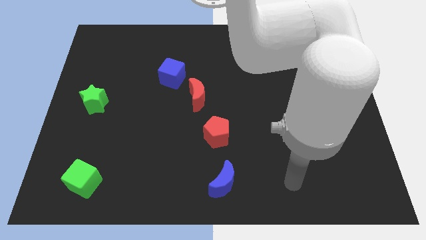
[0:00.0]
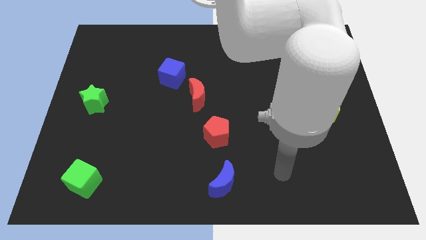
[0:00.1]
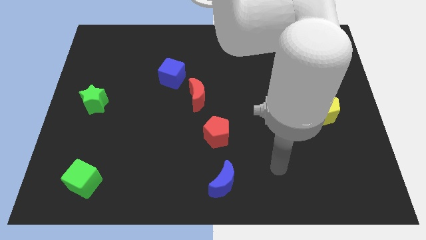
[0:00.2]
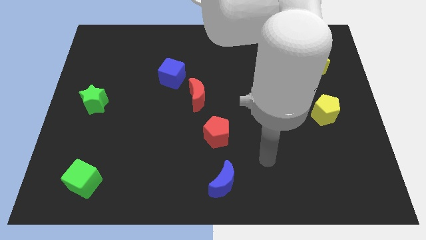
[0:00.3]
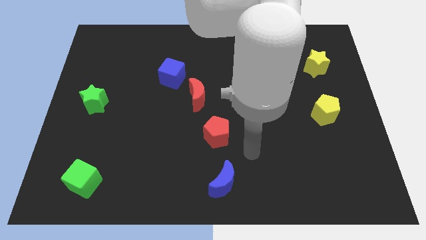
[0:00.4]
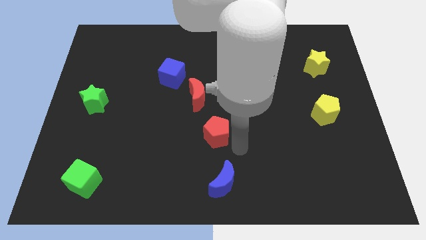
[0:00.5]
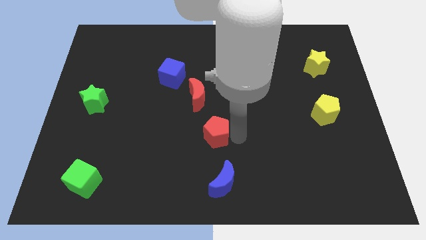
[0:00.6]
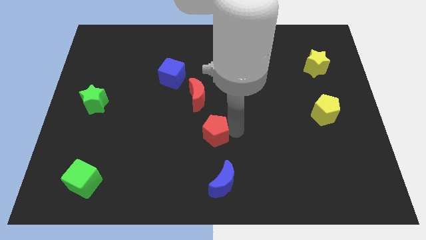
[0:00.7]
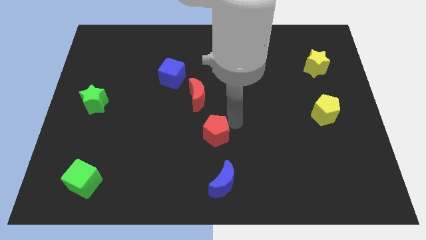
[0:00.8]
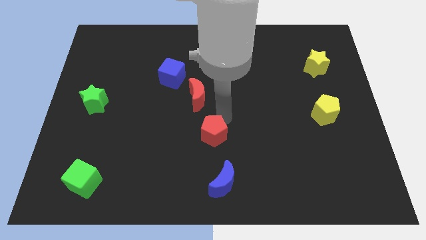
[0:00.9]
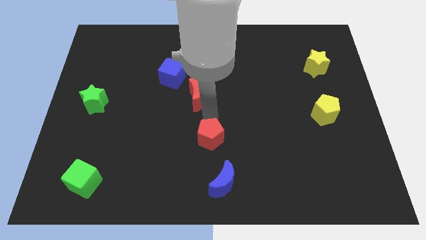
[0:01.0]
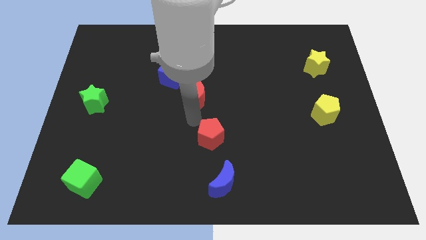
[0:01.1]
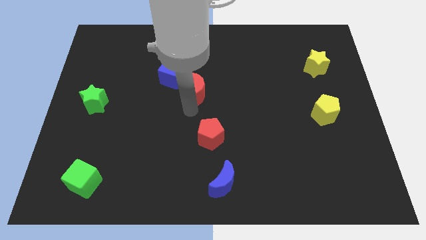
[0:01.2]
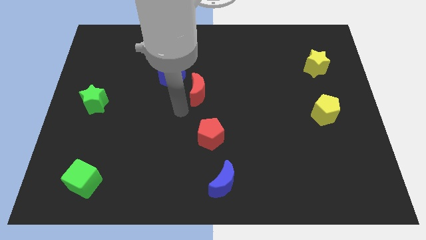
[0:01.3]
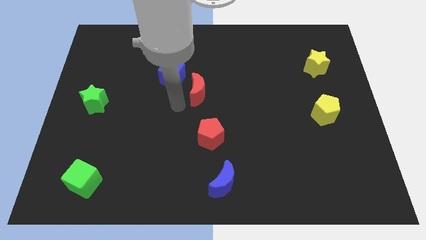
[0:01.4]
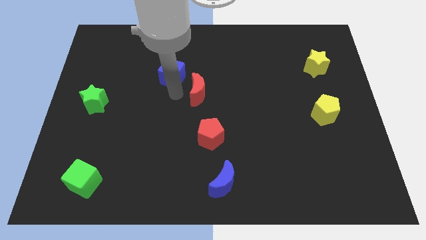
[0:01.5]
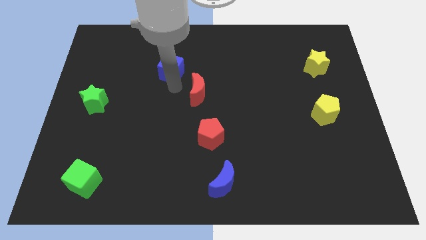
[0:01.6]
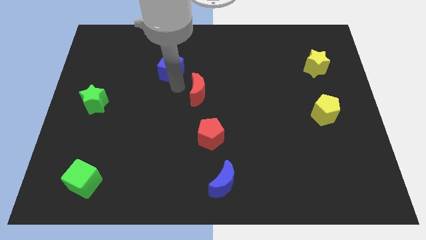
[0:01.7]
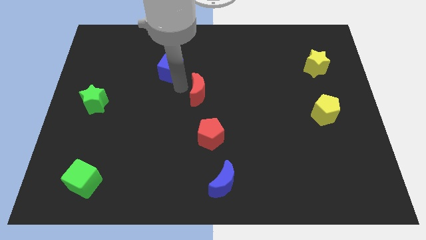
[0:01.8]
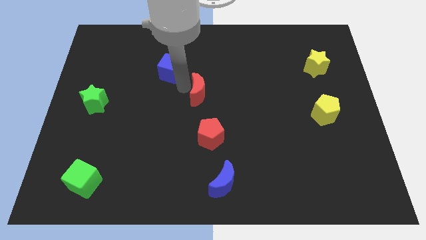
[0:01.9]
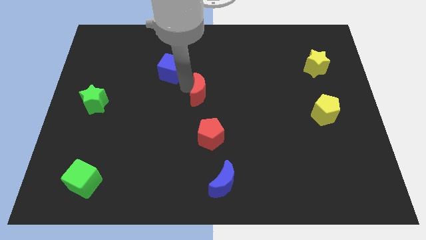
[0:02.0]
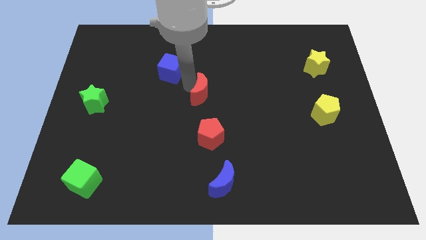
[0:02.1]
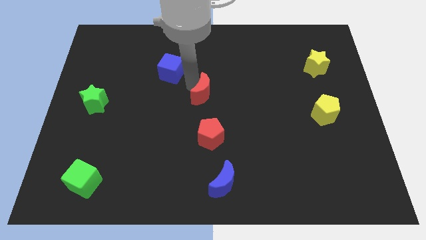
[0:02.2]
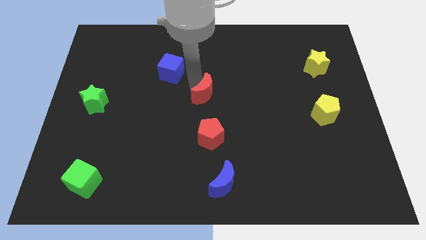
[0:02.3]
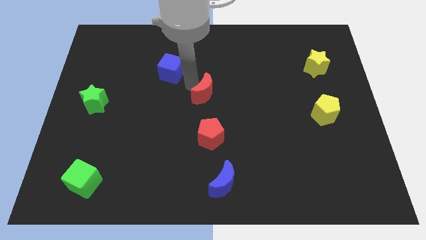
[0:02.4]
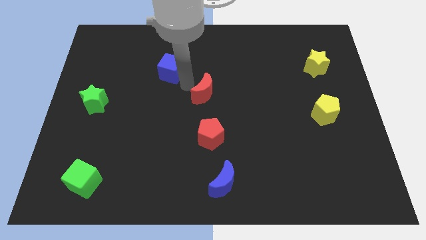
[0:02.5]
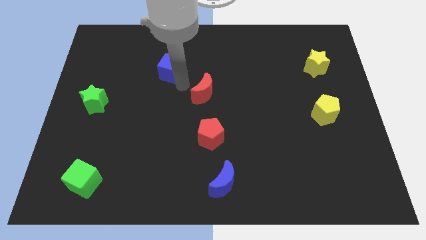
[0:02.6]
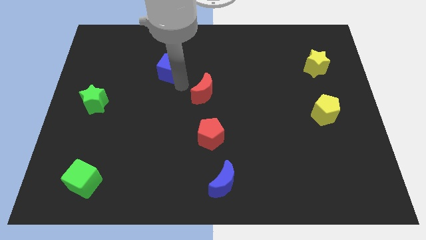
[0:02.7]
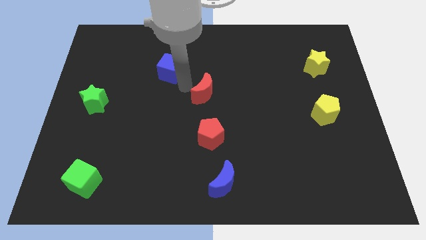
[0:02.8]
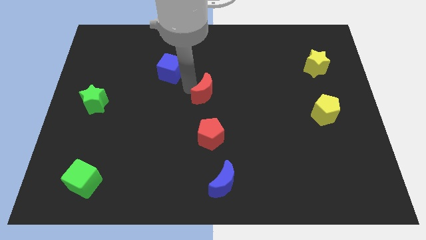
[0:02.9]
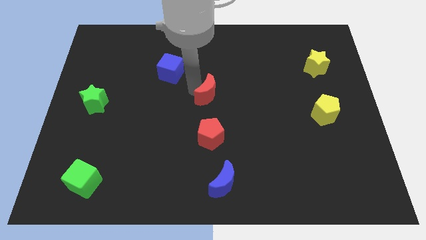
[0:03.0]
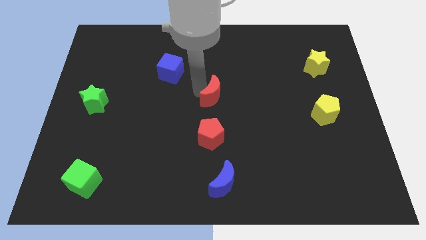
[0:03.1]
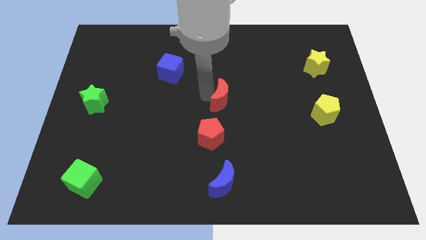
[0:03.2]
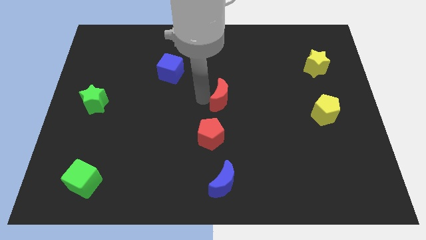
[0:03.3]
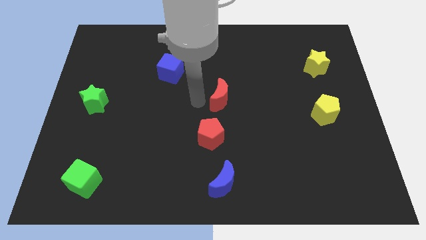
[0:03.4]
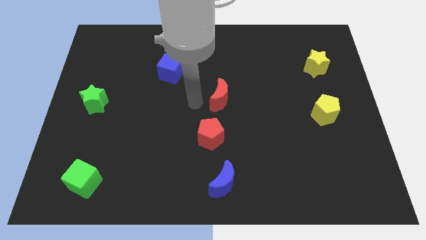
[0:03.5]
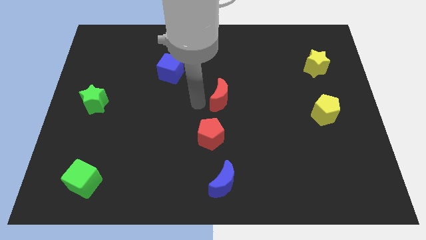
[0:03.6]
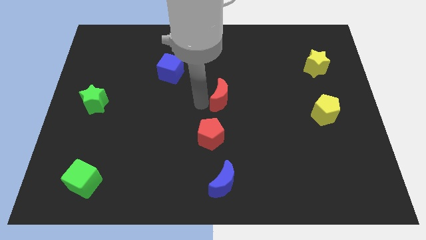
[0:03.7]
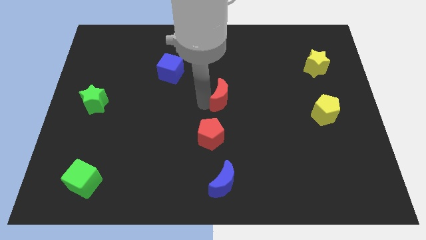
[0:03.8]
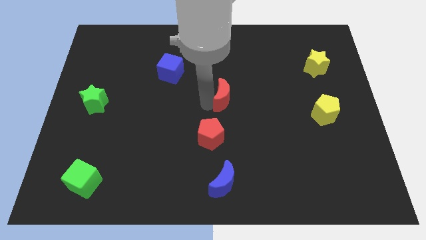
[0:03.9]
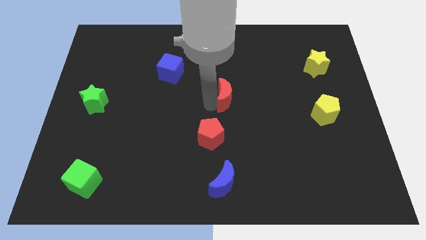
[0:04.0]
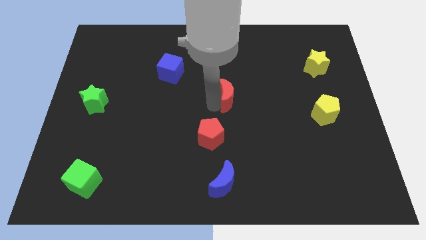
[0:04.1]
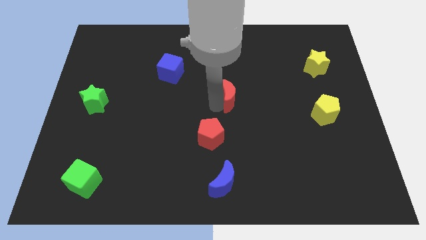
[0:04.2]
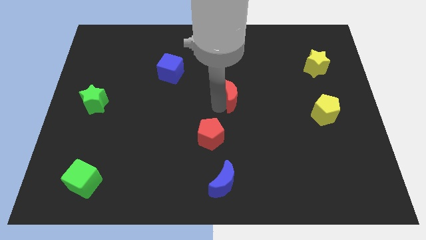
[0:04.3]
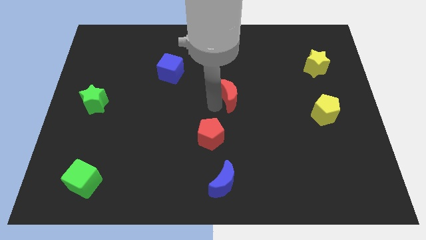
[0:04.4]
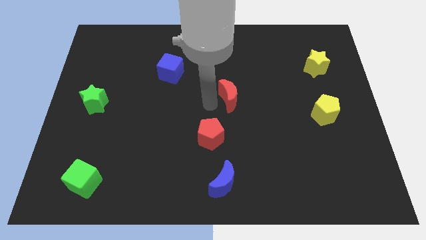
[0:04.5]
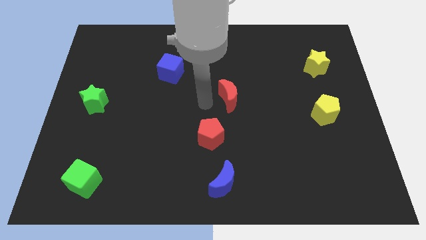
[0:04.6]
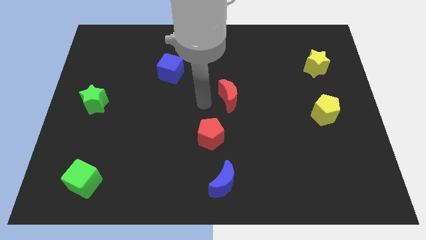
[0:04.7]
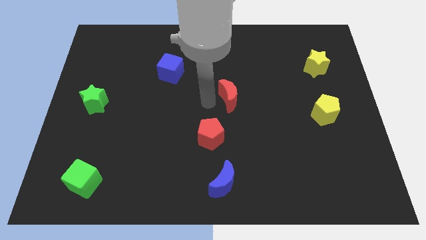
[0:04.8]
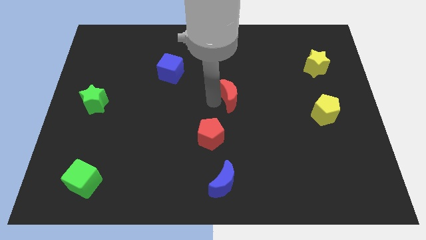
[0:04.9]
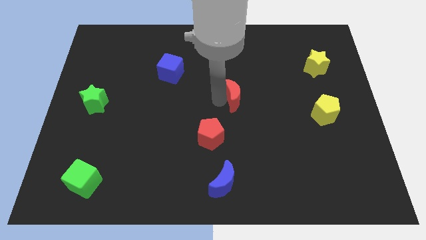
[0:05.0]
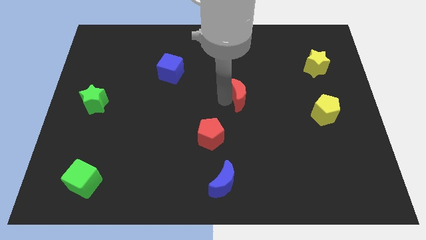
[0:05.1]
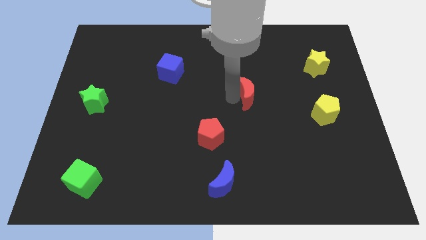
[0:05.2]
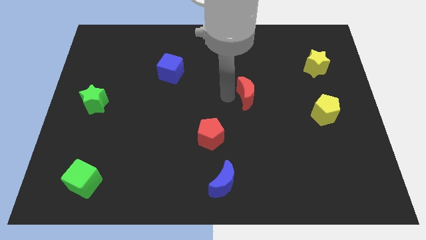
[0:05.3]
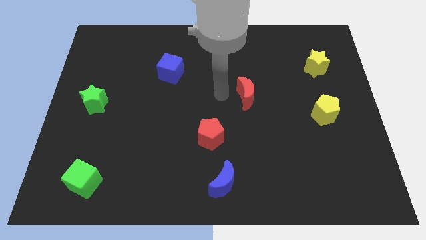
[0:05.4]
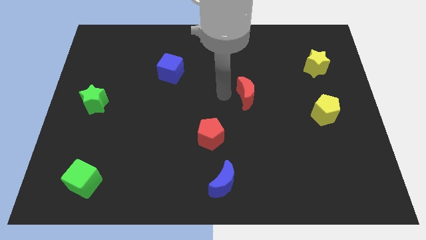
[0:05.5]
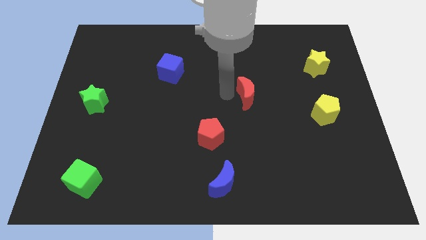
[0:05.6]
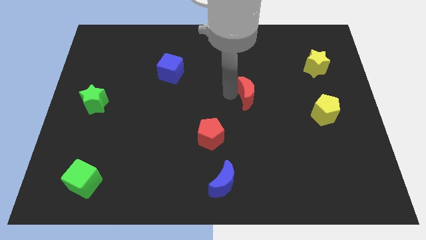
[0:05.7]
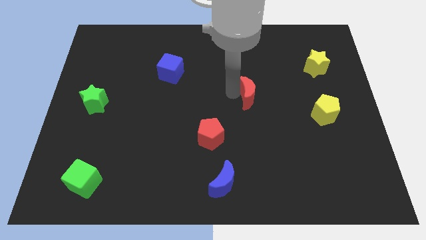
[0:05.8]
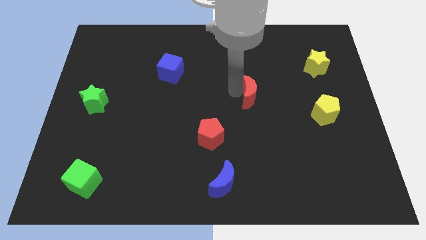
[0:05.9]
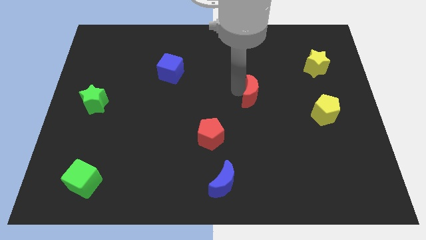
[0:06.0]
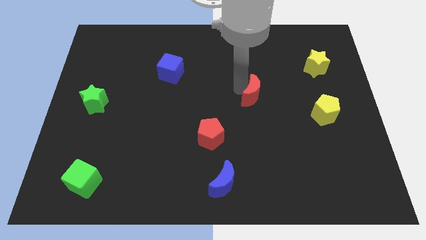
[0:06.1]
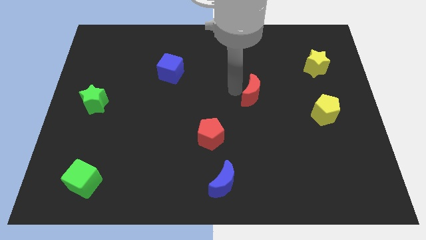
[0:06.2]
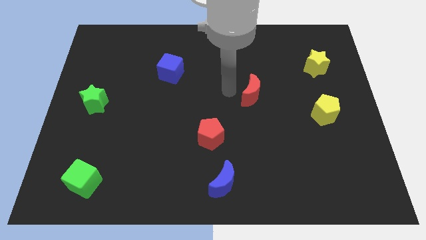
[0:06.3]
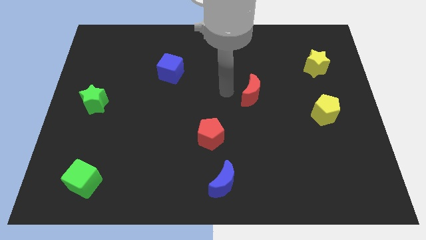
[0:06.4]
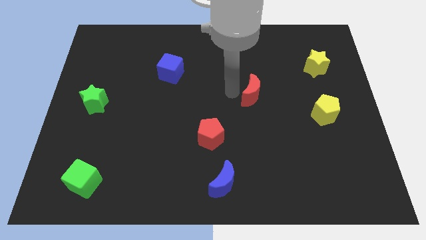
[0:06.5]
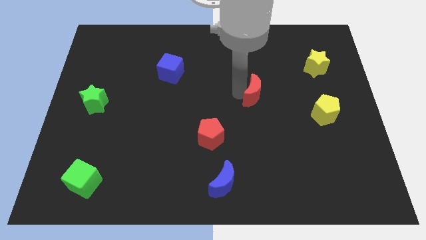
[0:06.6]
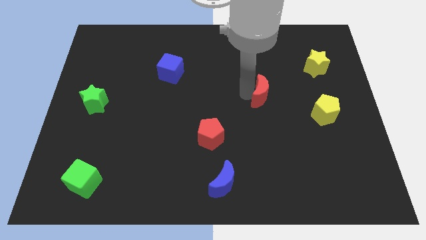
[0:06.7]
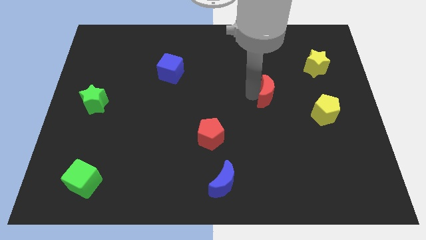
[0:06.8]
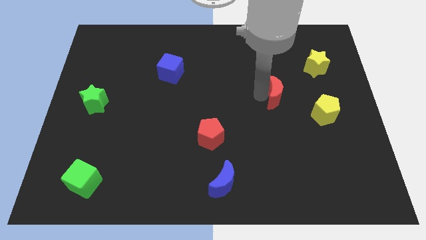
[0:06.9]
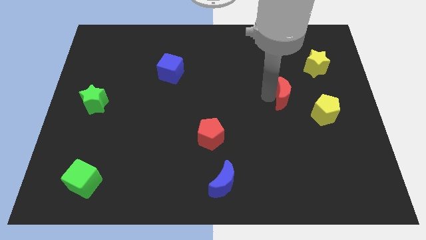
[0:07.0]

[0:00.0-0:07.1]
slide the red moon to the top left side of the yellow pentagon

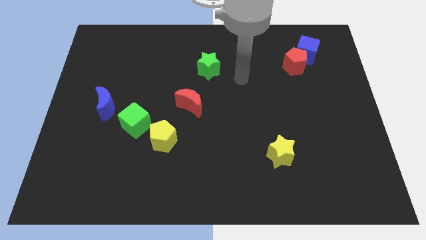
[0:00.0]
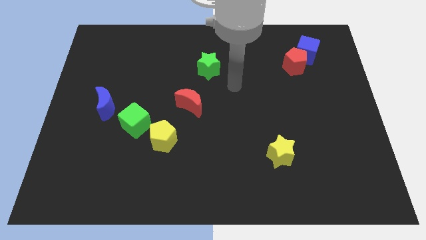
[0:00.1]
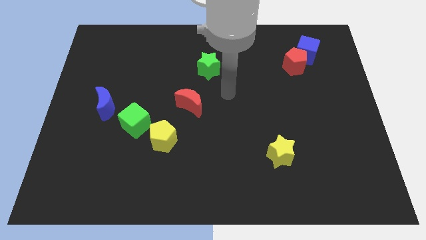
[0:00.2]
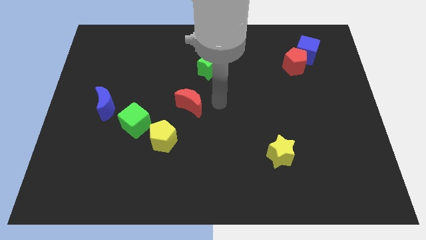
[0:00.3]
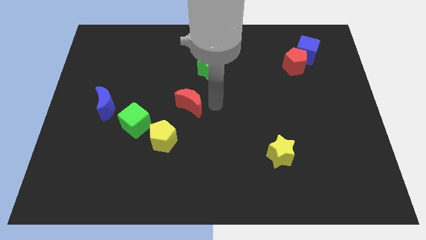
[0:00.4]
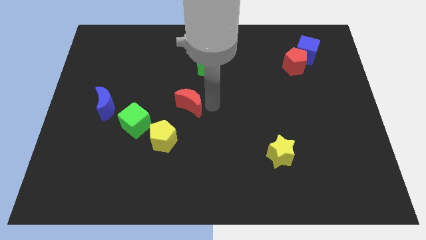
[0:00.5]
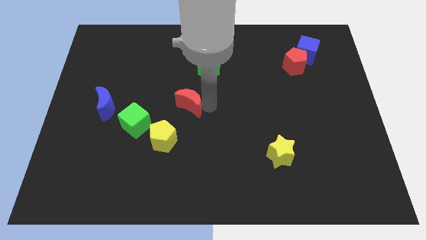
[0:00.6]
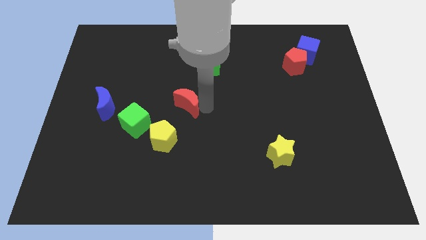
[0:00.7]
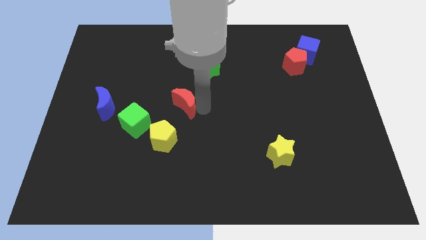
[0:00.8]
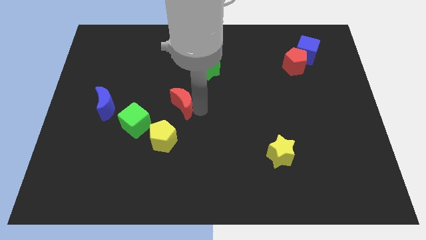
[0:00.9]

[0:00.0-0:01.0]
move the red moon to the top right side of the green cube
